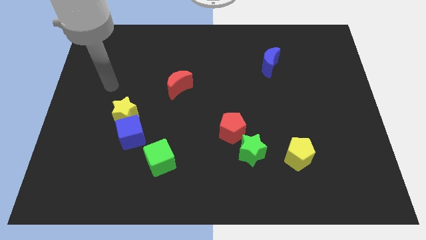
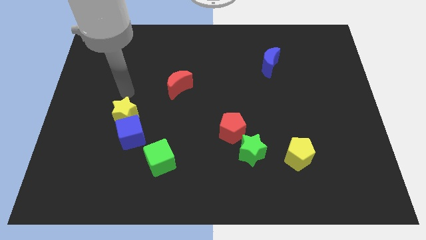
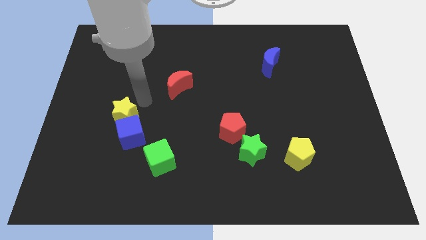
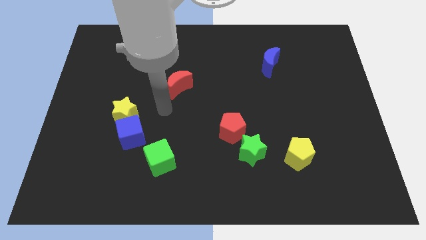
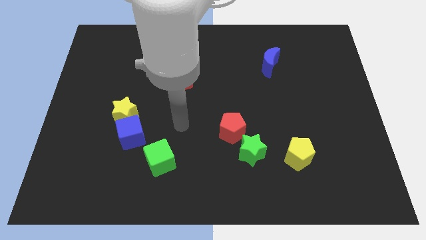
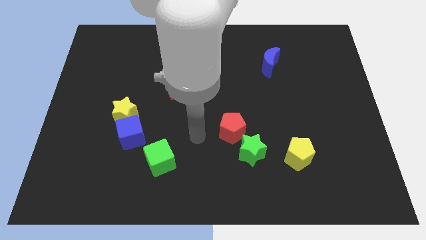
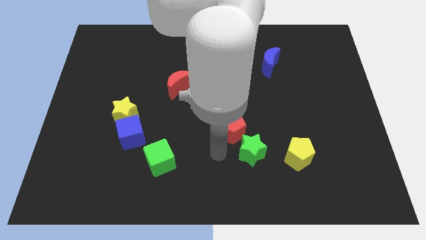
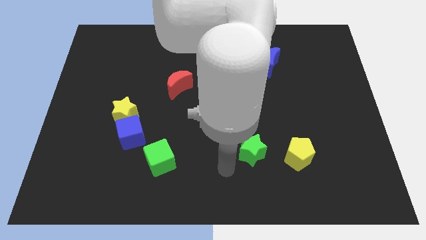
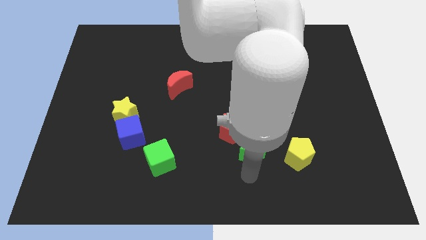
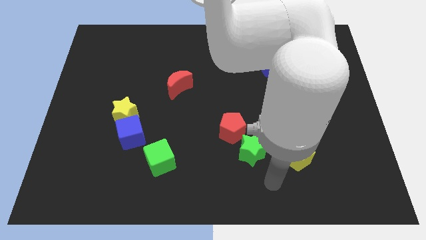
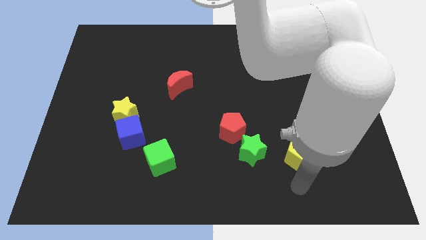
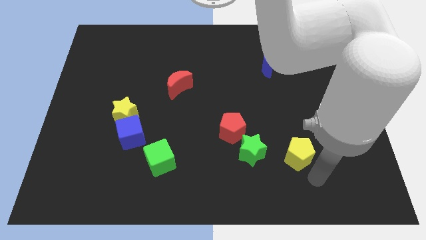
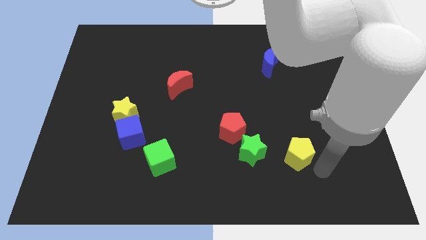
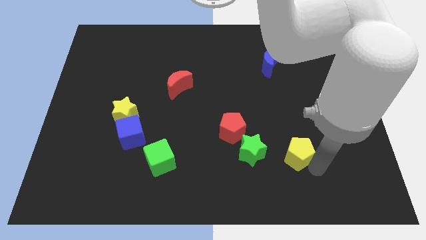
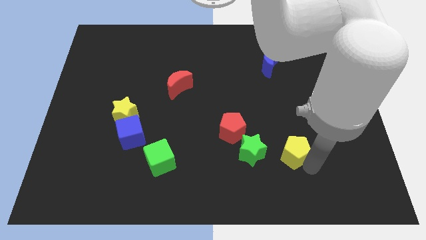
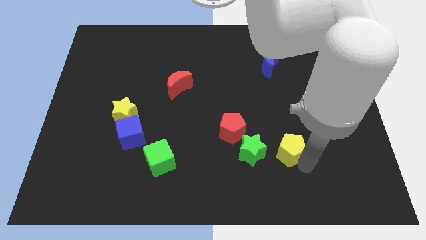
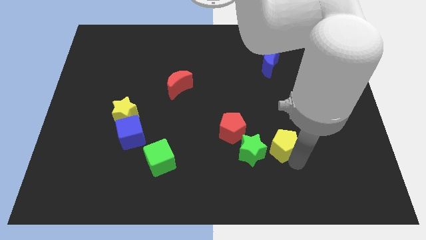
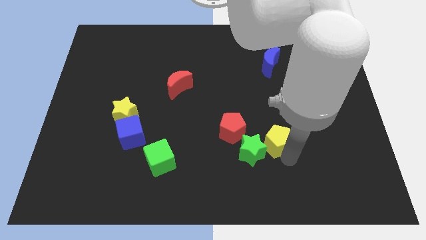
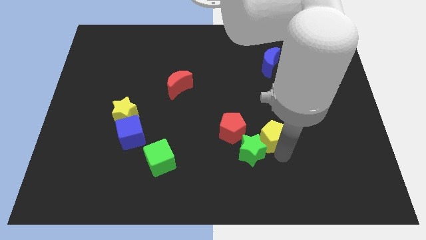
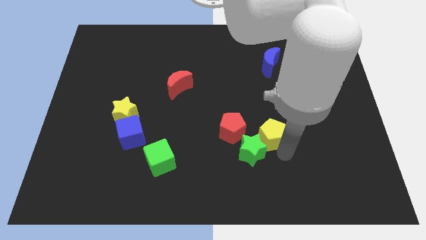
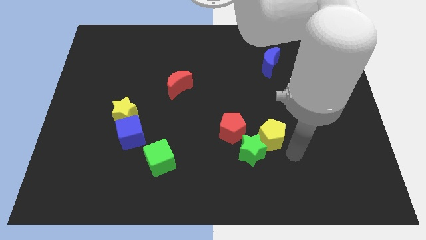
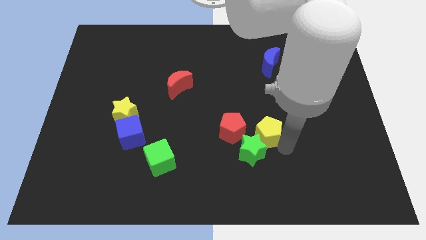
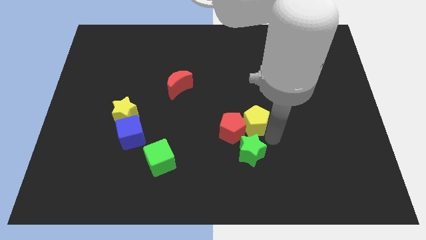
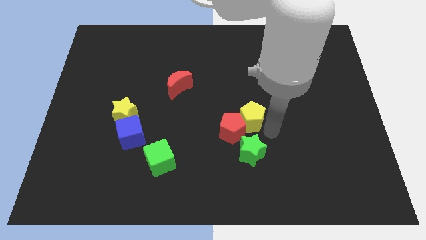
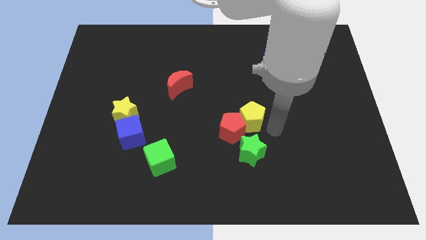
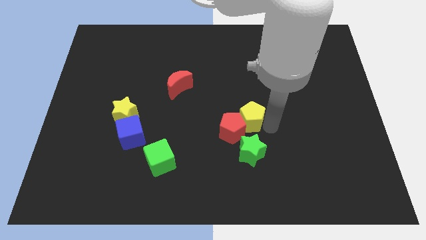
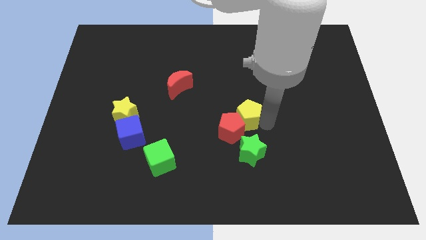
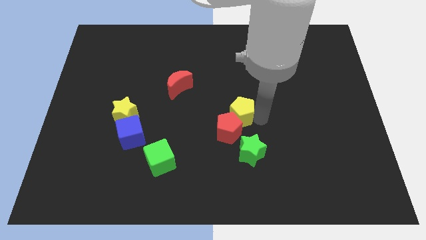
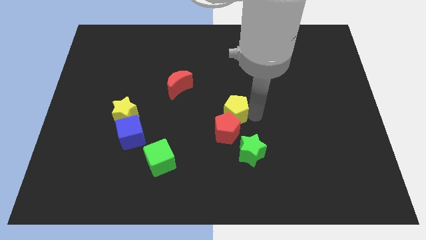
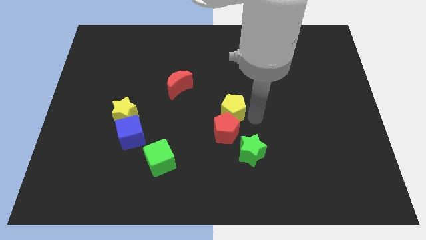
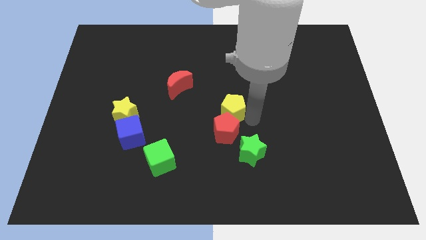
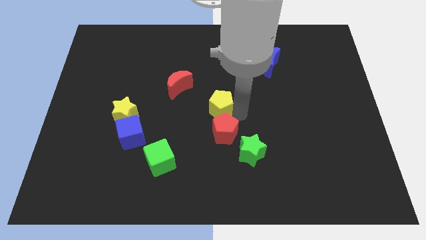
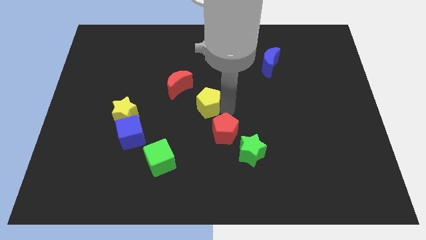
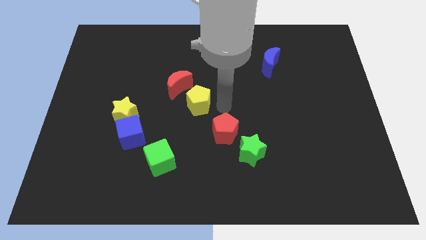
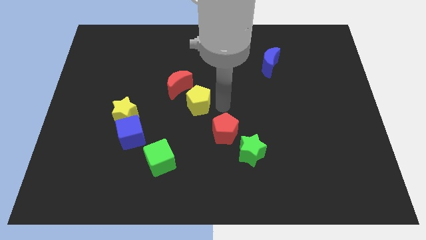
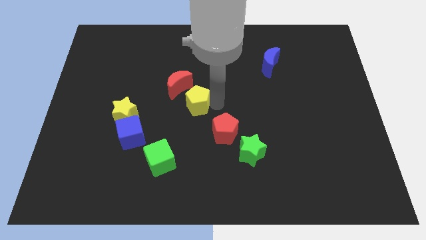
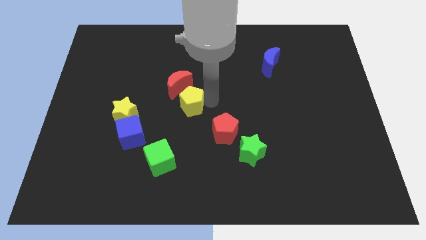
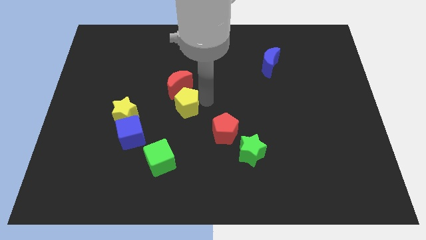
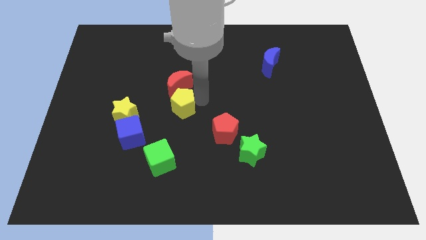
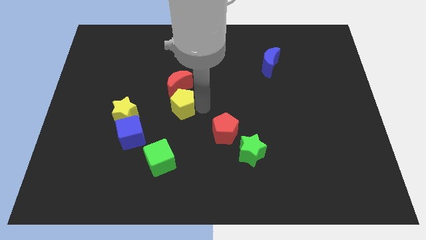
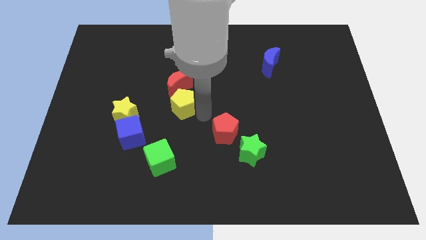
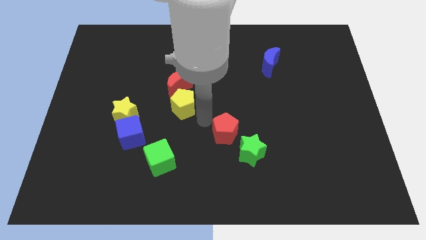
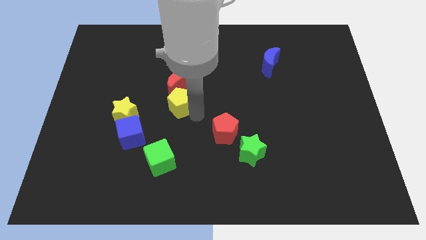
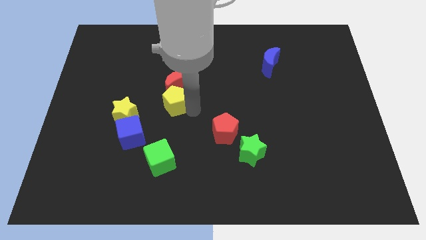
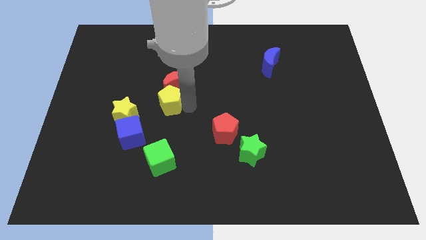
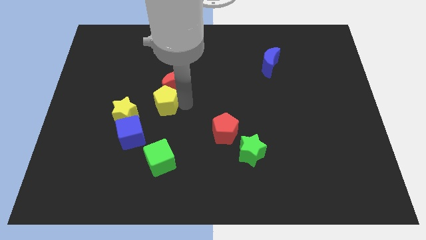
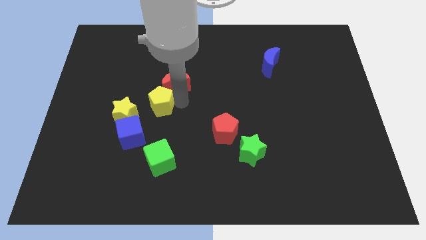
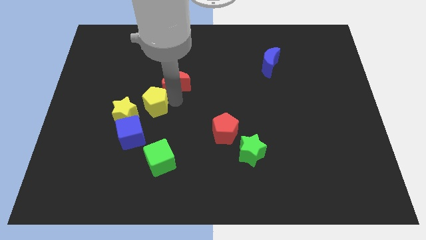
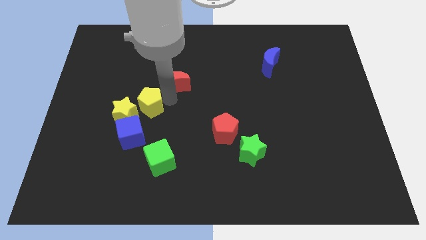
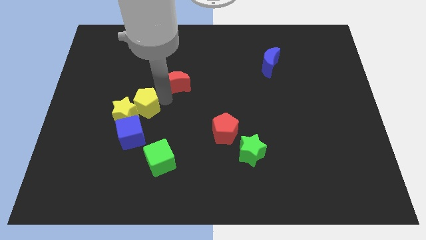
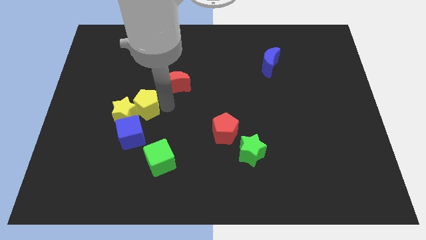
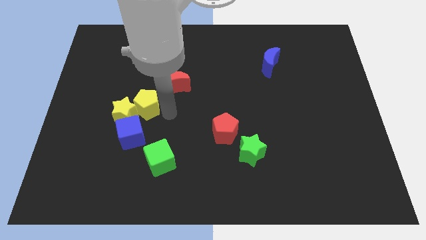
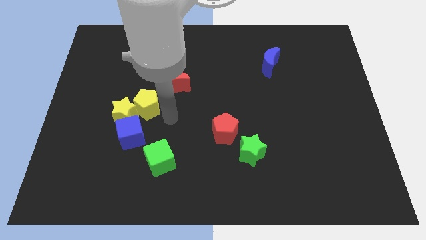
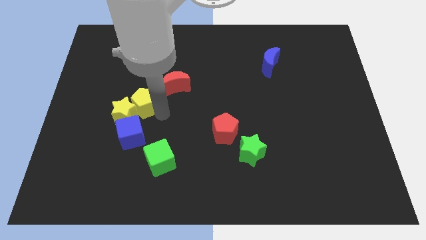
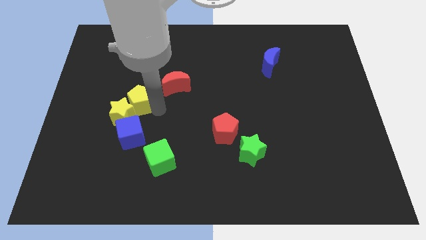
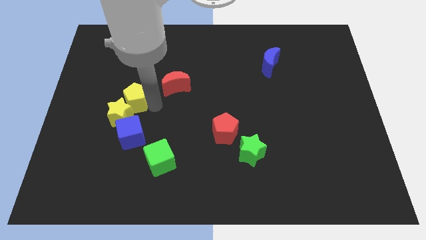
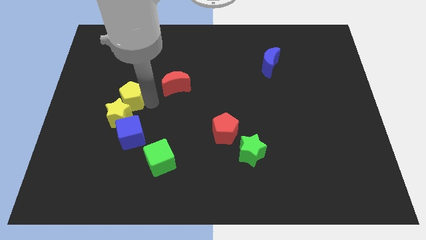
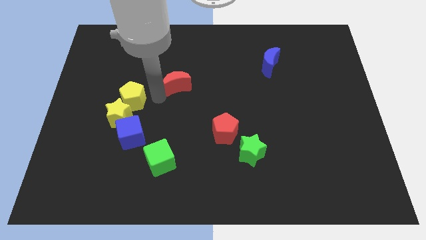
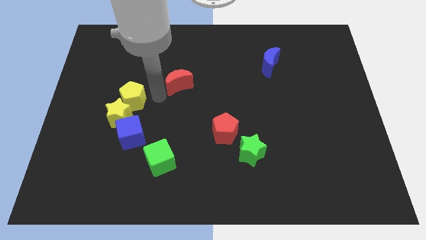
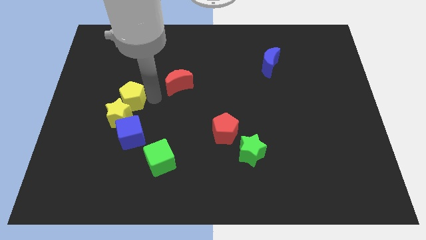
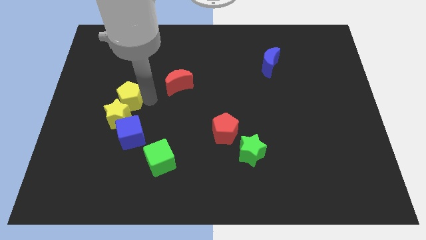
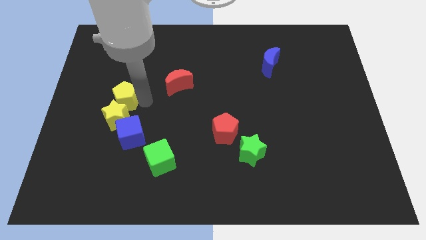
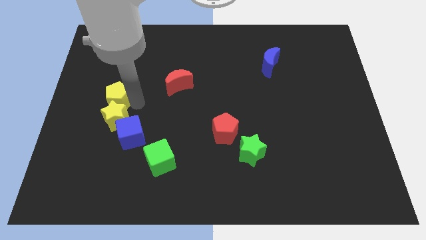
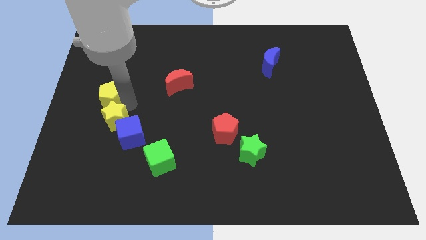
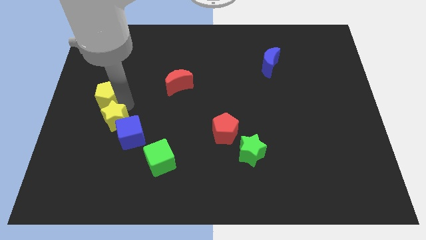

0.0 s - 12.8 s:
put the yellow pentagon to the center left

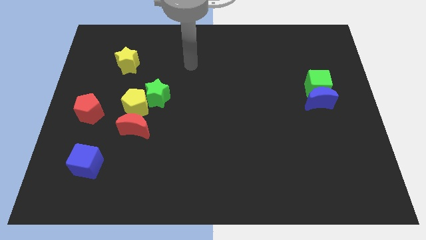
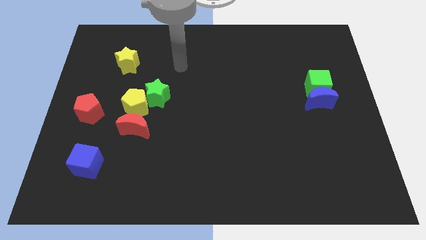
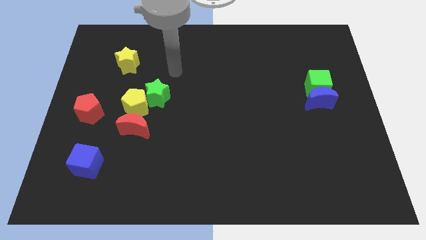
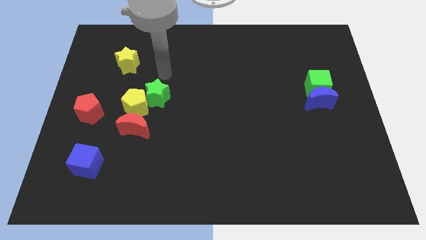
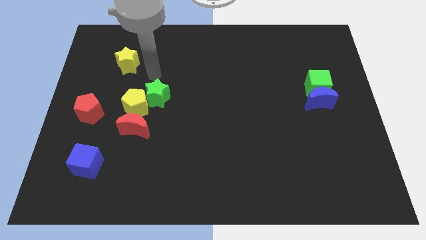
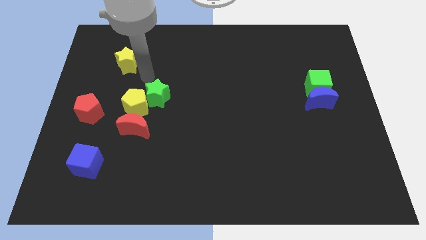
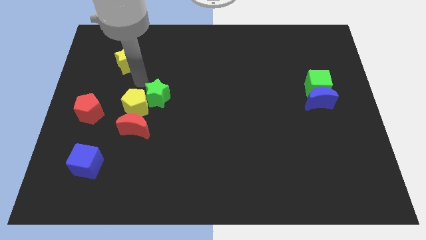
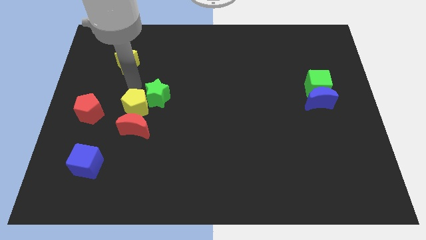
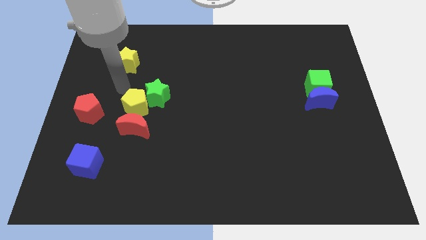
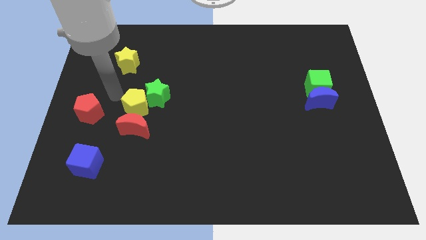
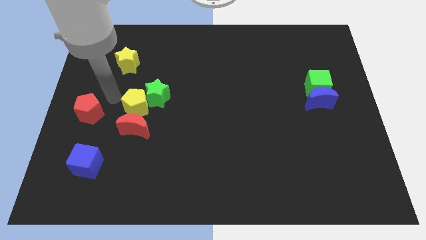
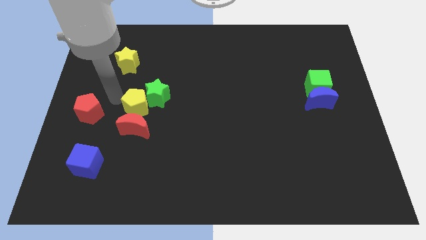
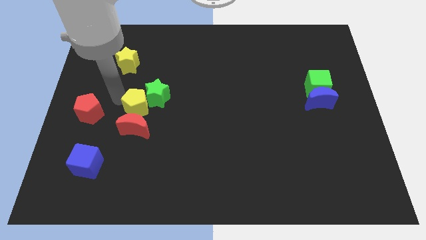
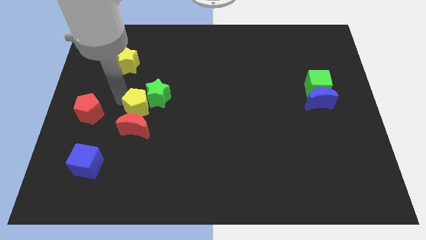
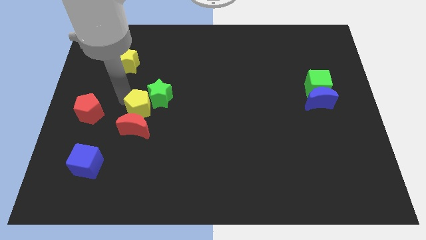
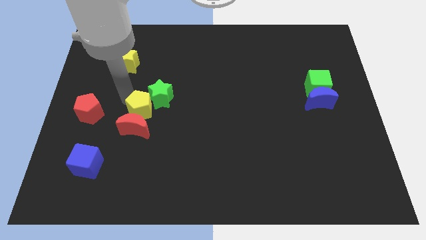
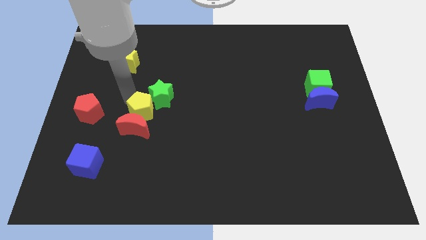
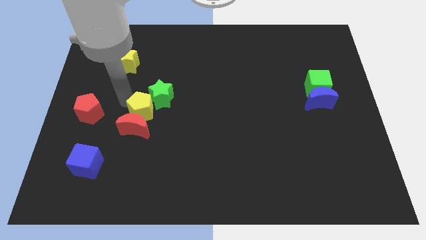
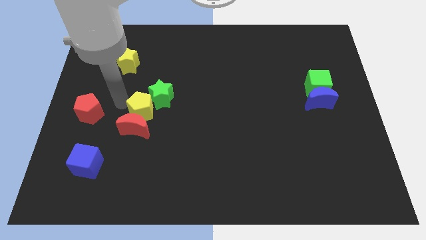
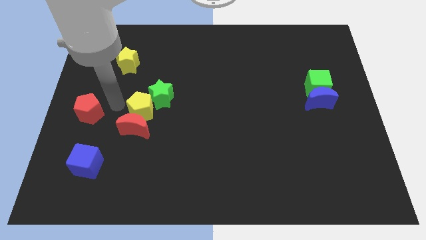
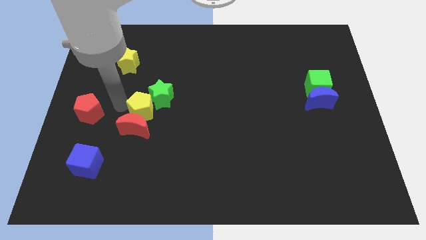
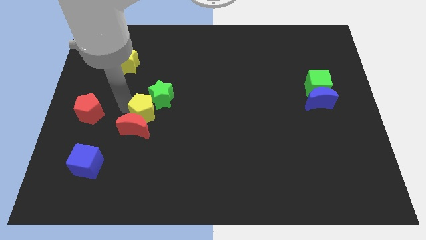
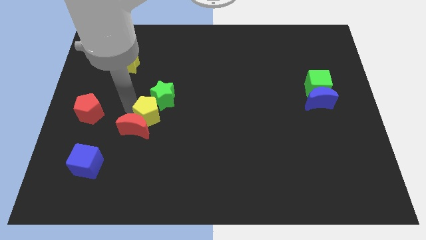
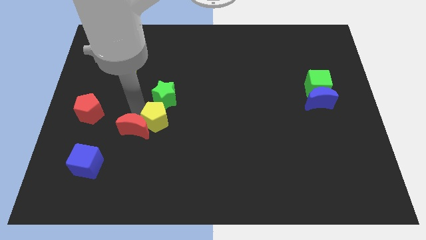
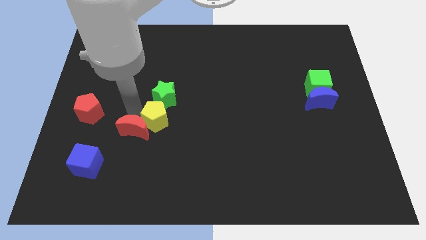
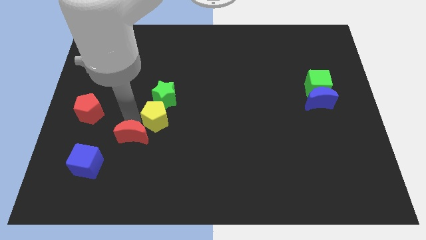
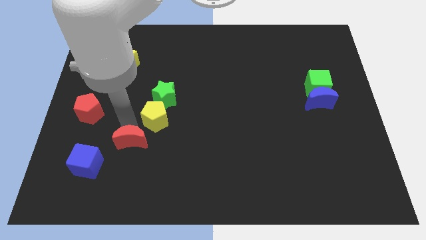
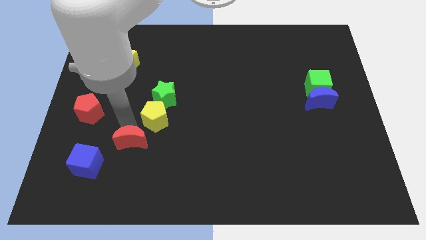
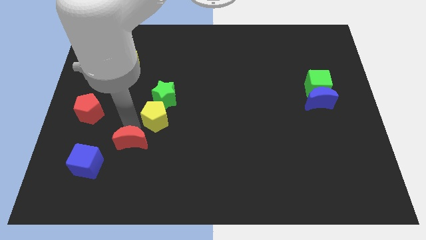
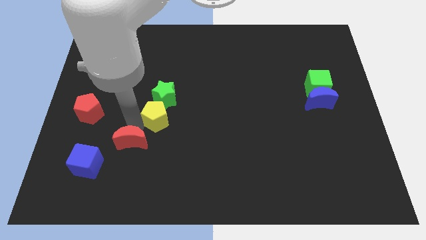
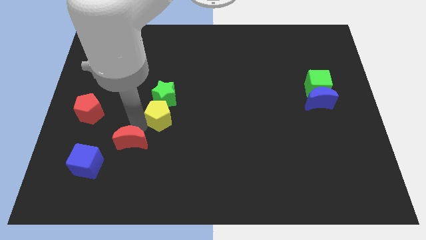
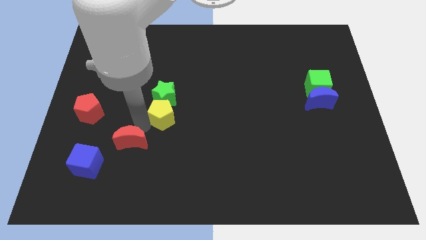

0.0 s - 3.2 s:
move the yellow pentagon to the middle of the board
